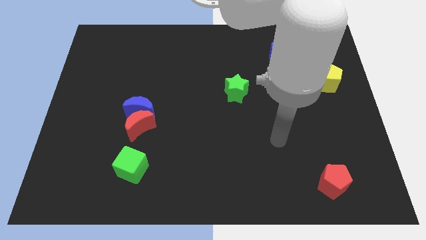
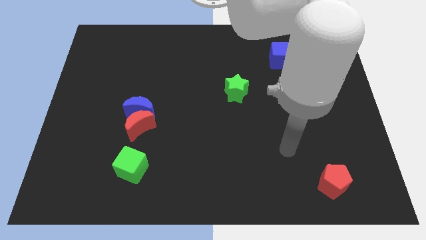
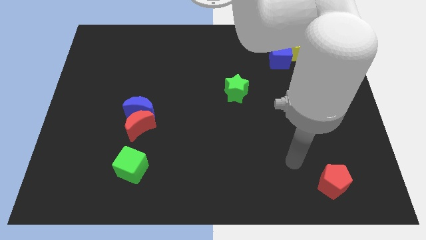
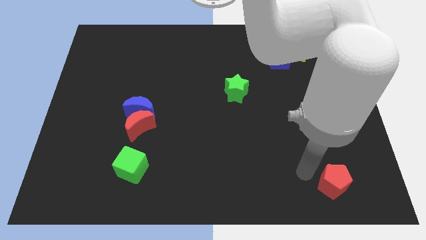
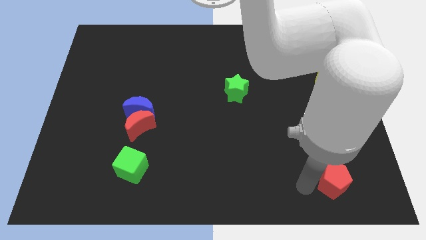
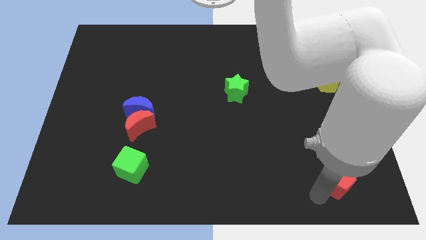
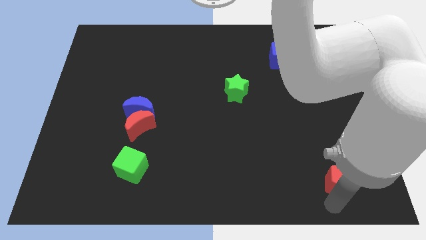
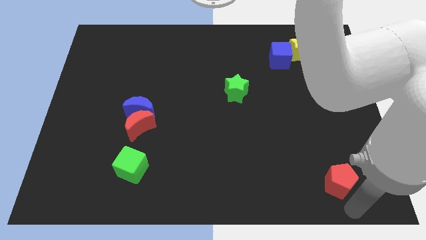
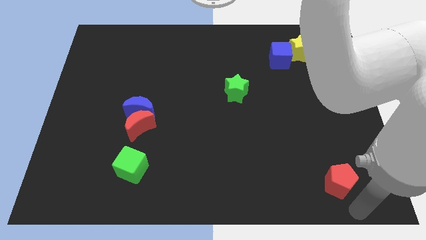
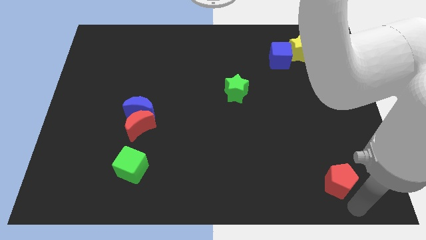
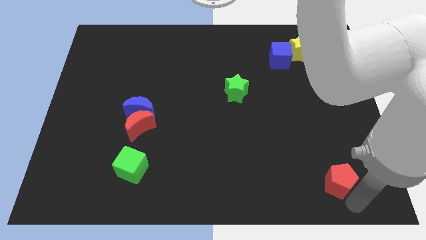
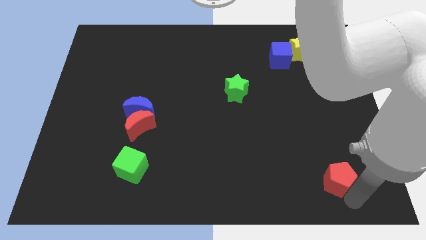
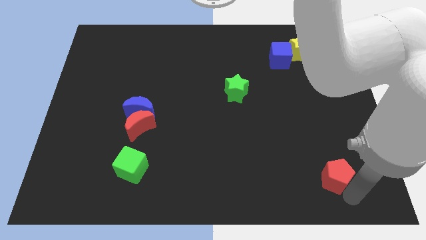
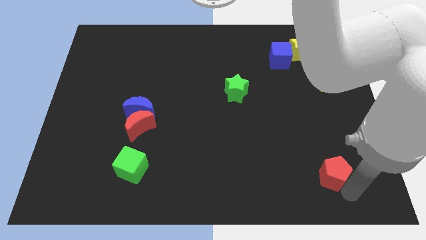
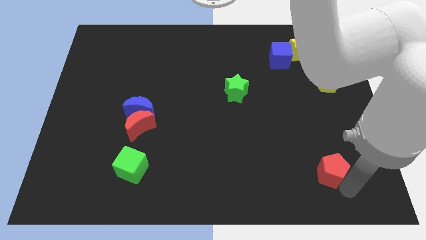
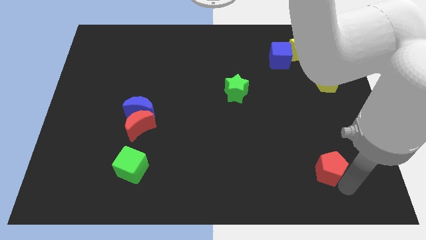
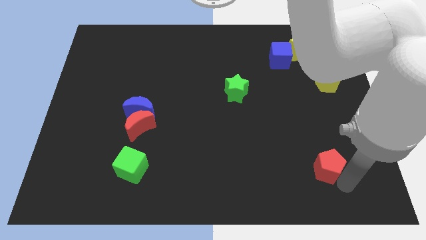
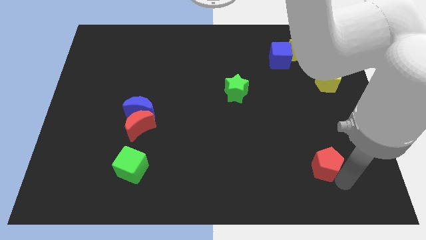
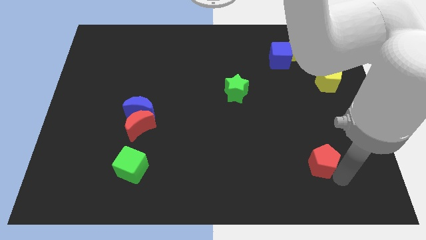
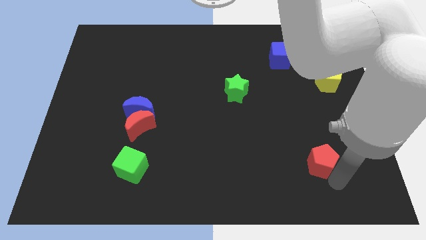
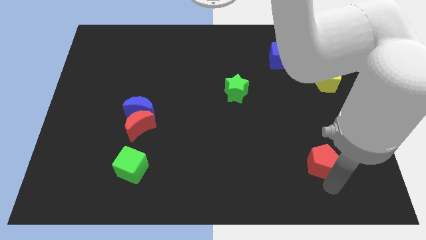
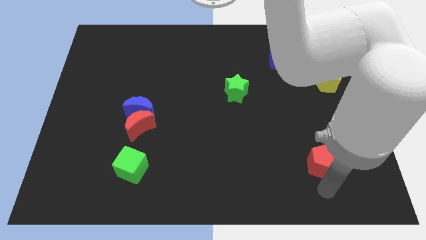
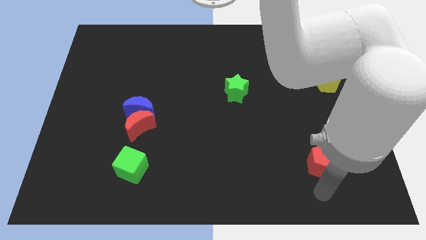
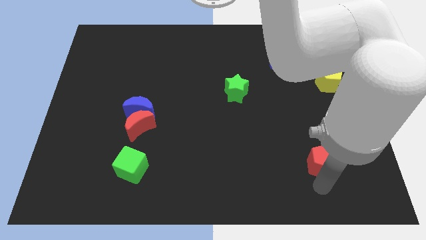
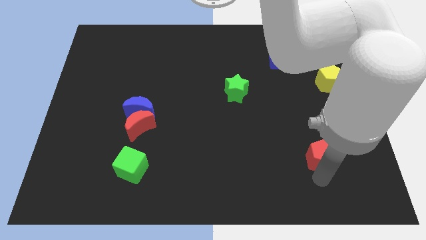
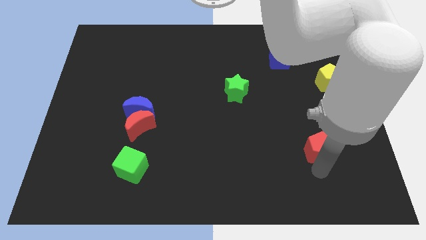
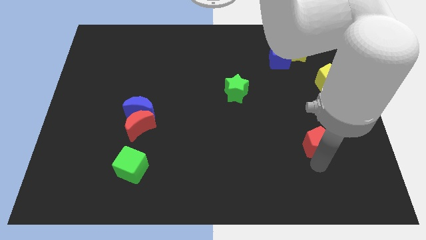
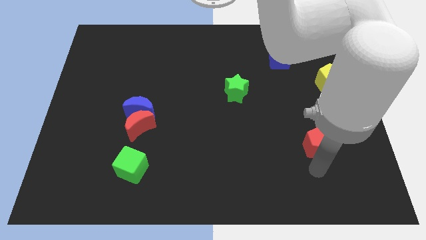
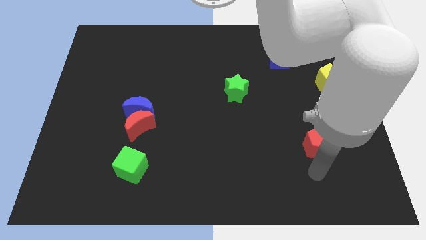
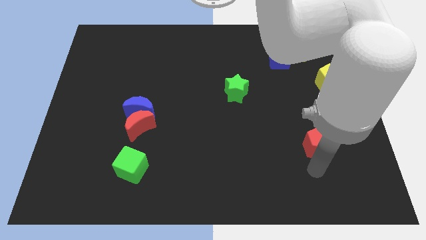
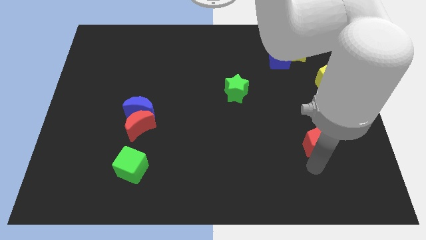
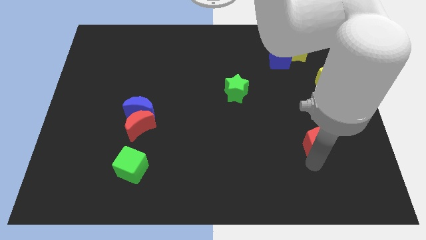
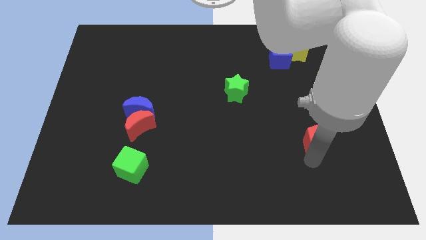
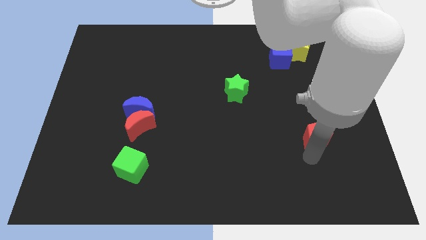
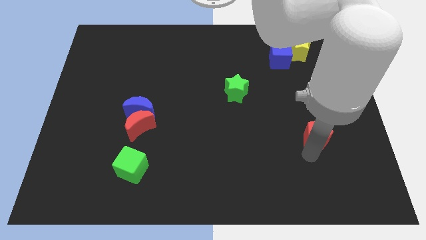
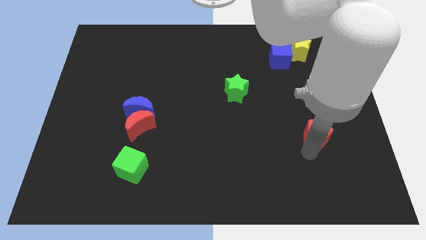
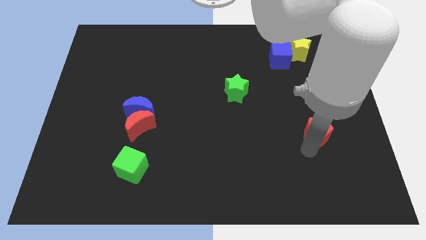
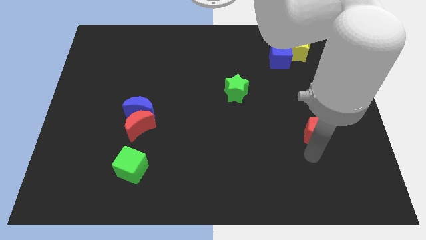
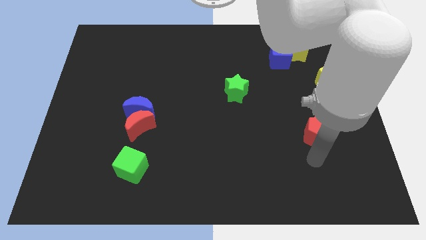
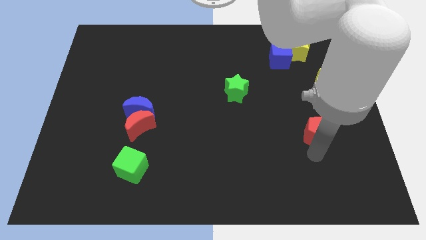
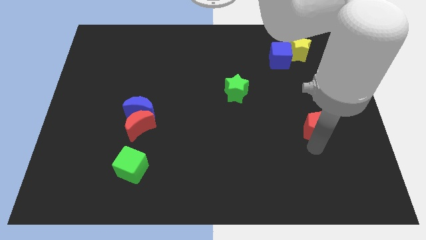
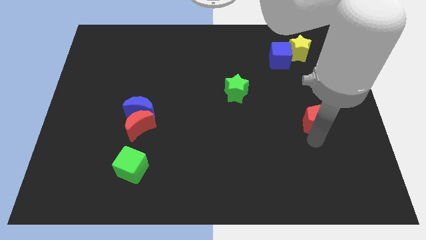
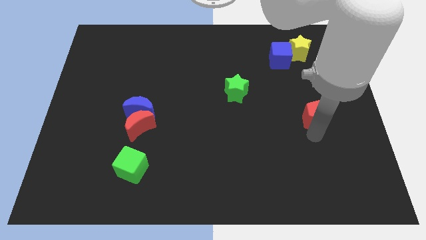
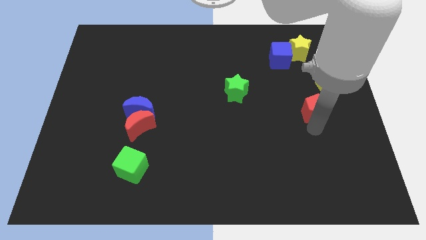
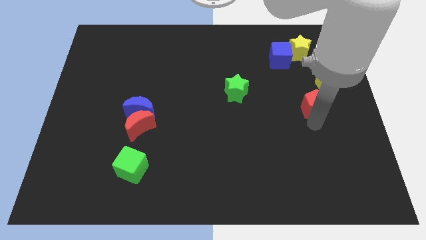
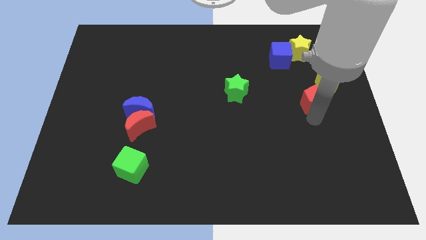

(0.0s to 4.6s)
push the red pentagon up

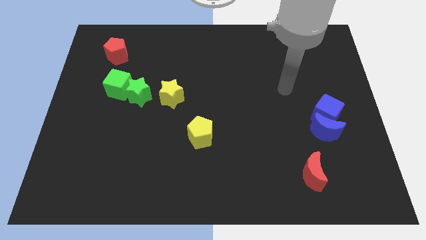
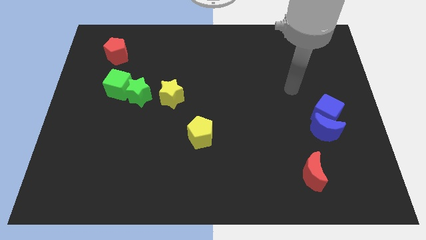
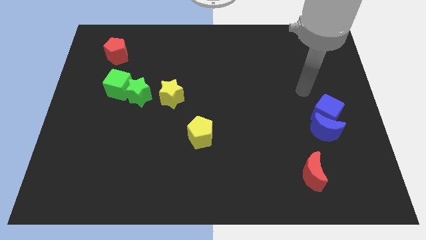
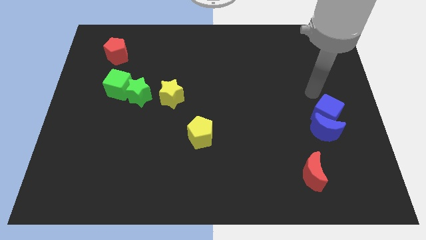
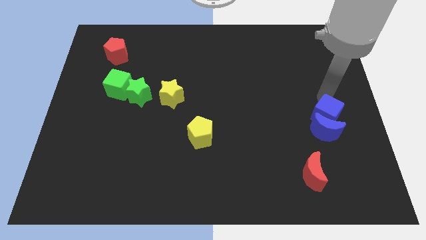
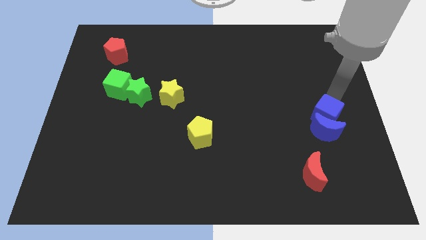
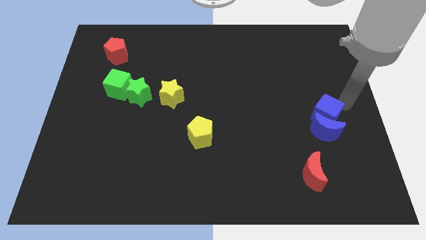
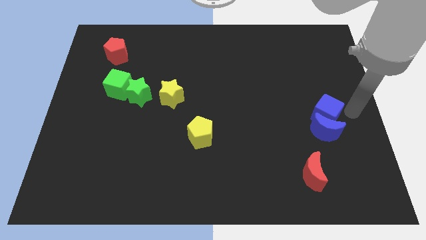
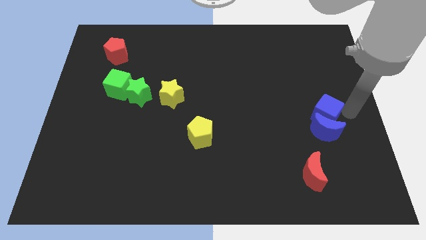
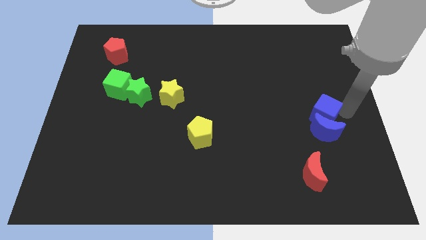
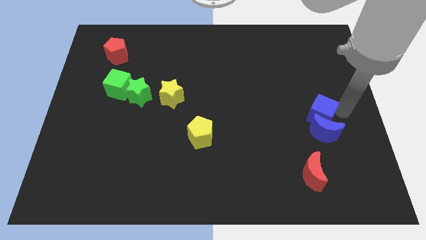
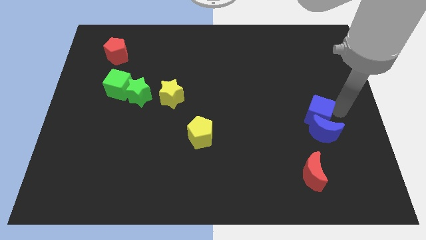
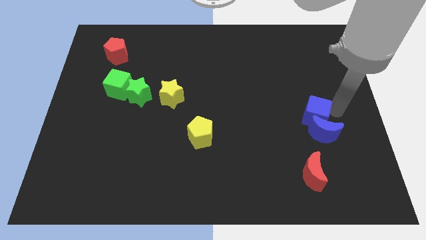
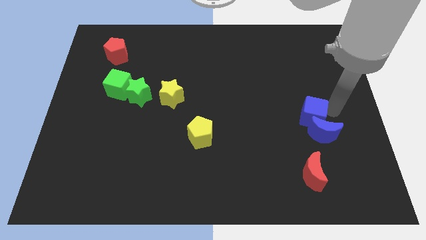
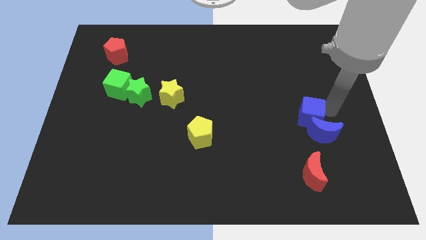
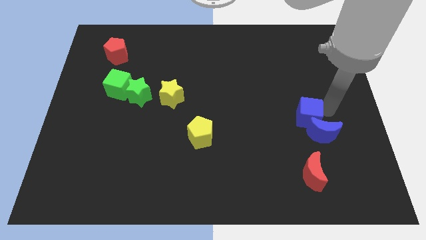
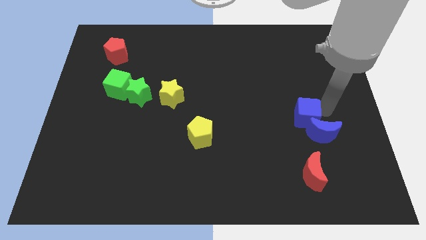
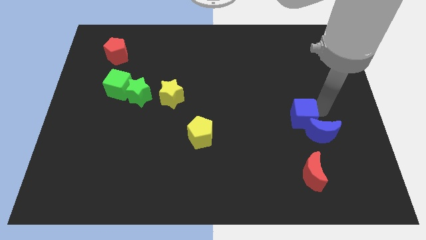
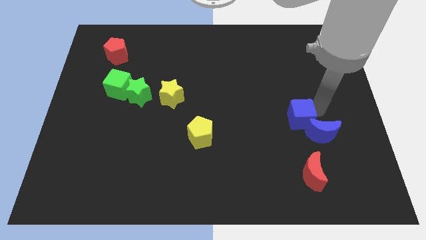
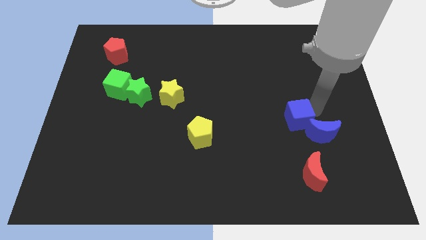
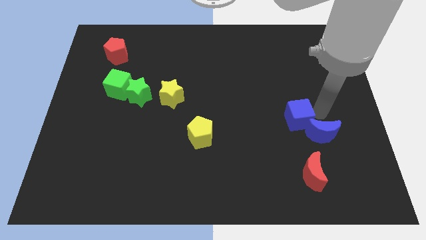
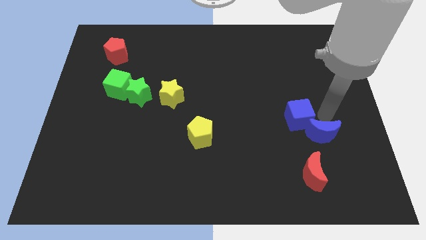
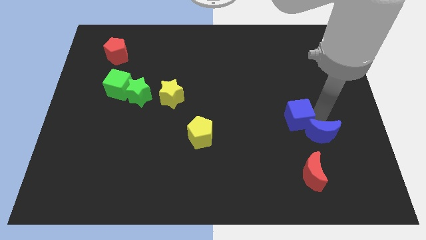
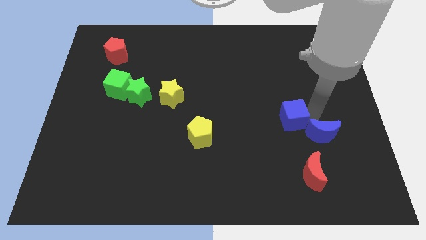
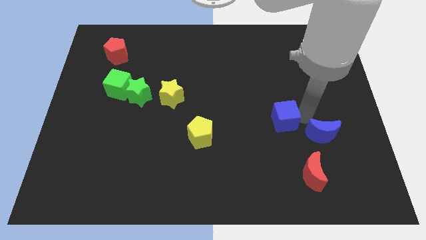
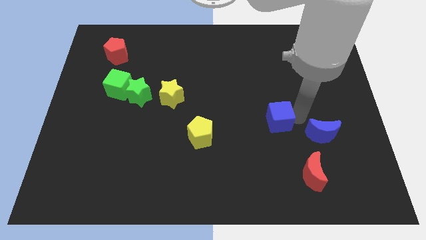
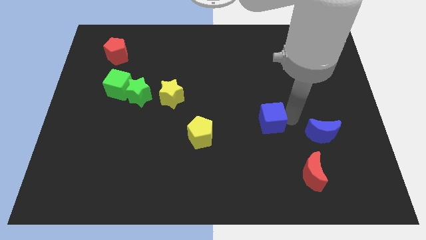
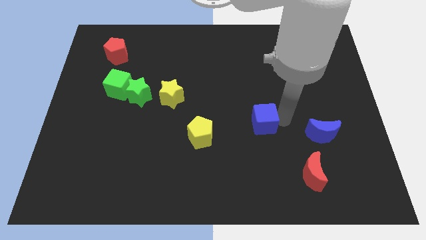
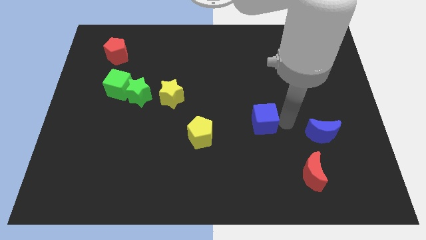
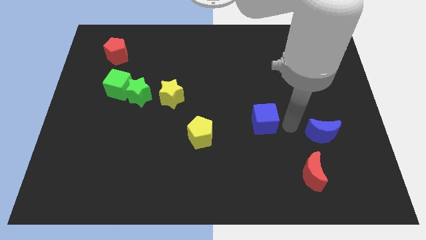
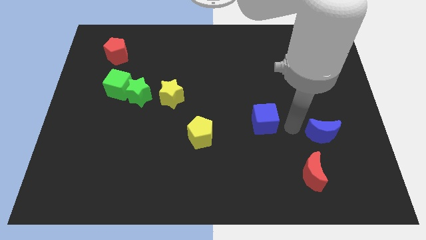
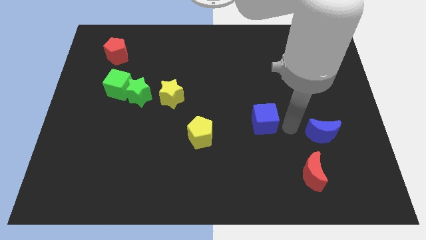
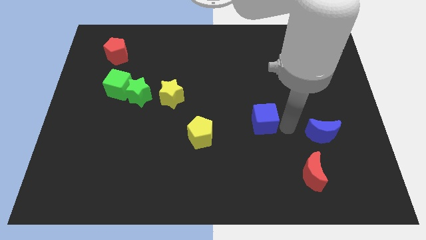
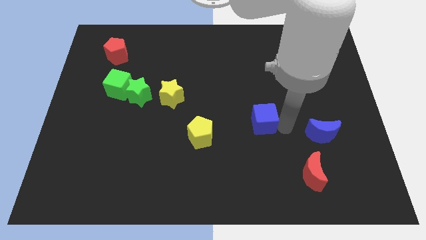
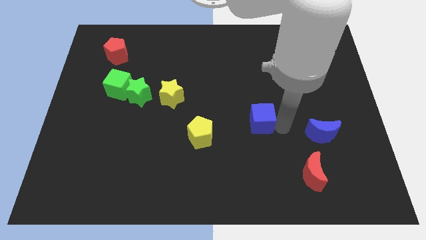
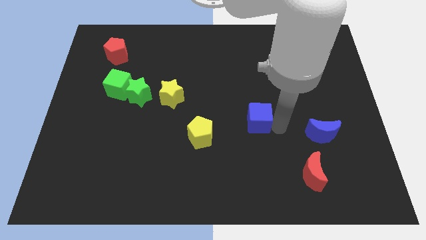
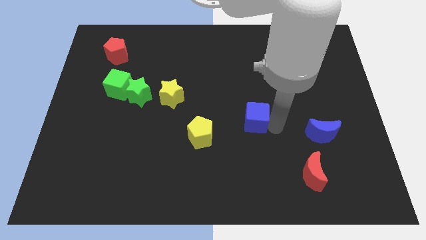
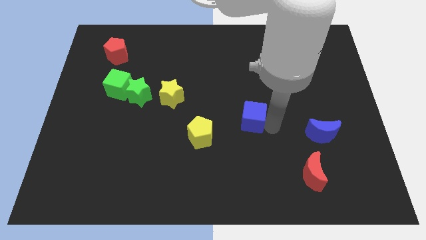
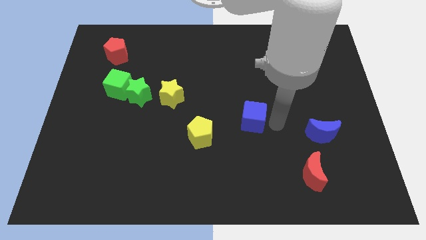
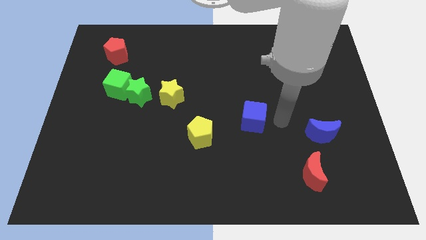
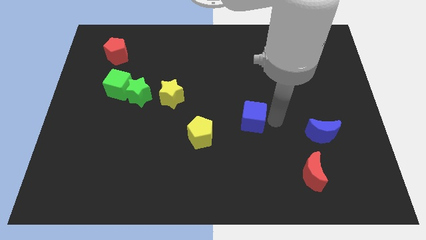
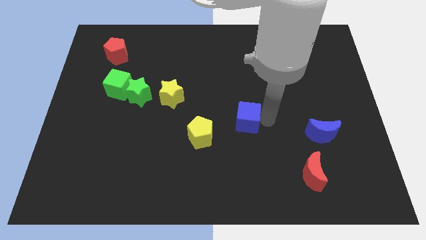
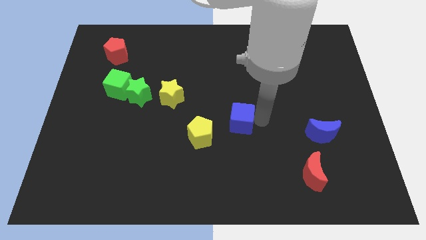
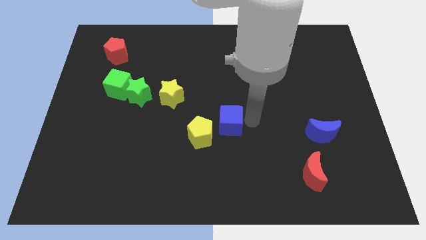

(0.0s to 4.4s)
push the blue cube to the left

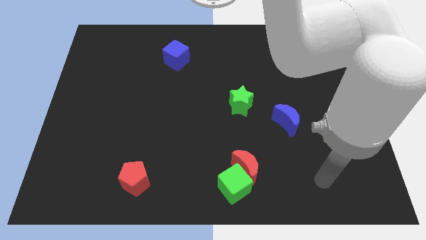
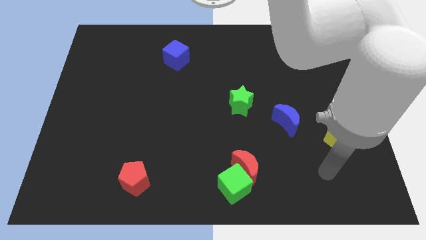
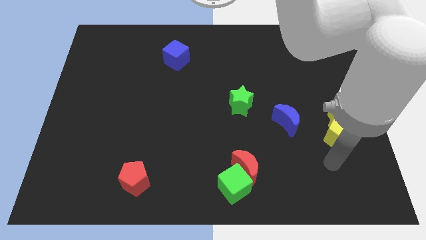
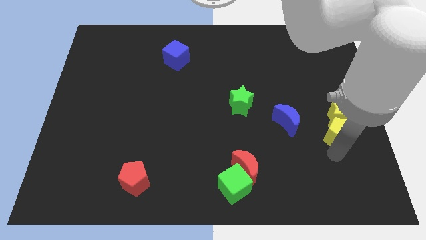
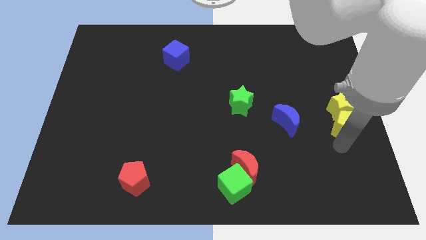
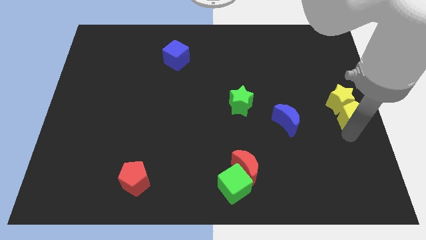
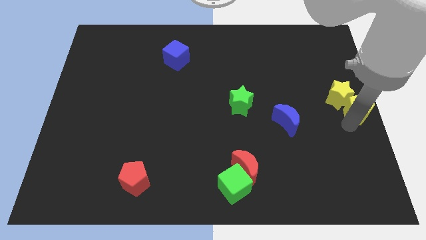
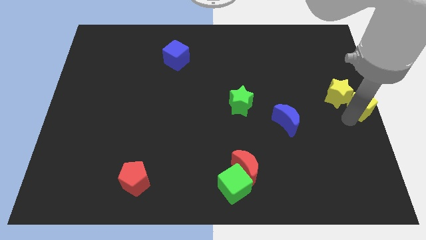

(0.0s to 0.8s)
slightly push the yellow star up
